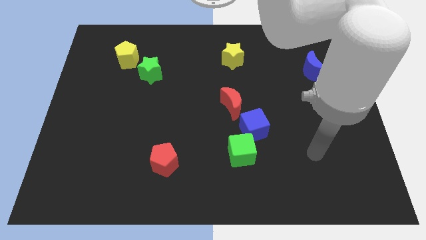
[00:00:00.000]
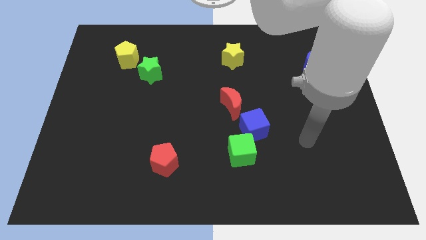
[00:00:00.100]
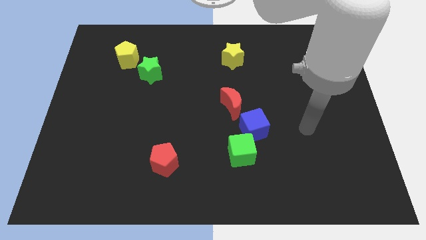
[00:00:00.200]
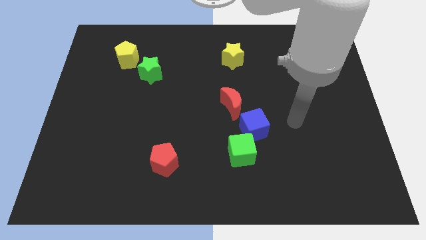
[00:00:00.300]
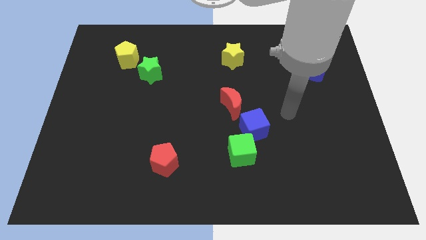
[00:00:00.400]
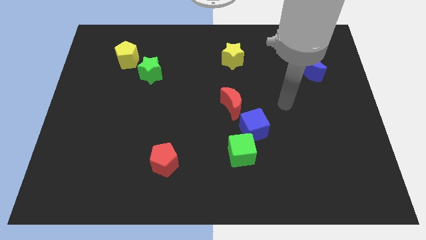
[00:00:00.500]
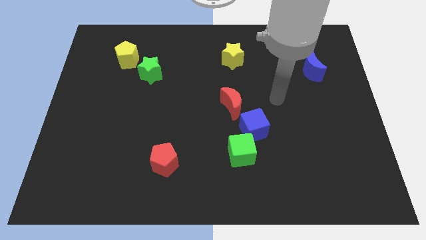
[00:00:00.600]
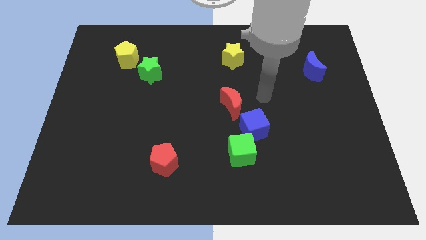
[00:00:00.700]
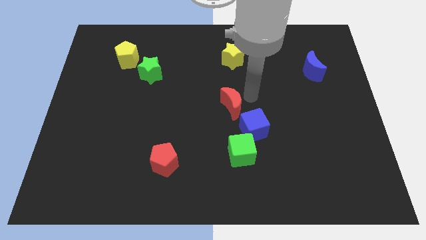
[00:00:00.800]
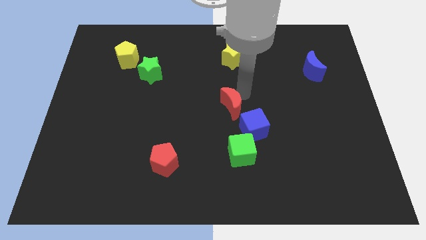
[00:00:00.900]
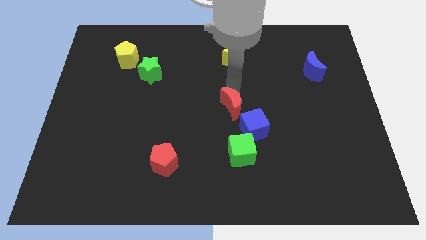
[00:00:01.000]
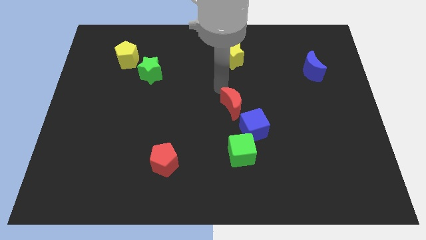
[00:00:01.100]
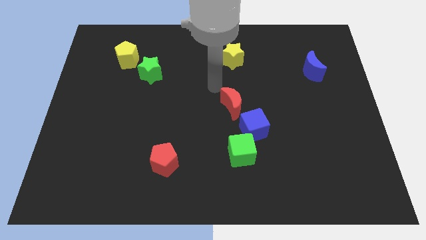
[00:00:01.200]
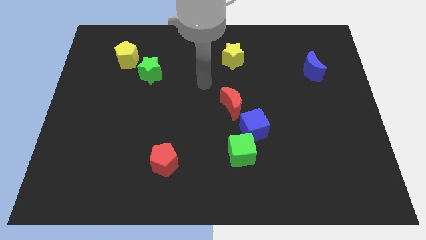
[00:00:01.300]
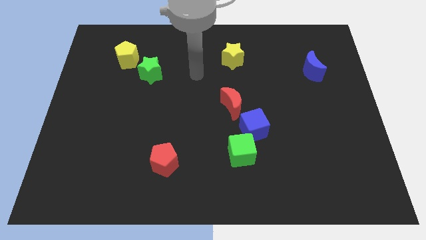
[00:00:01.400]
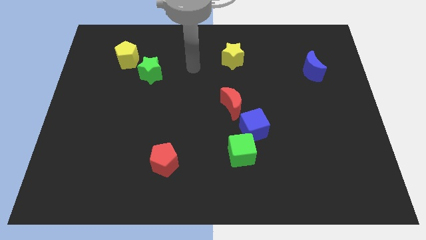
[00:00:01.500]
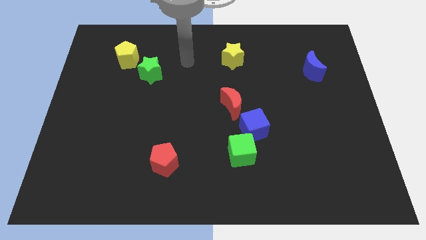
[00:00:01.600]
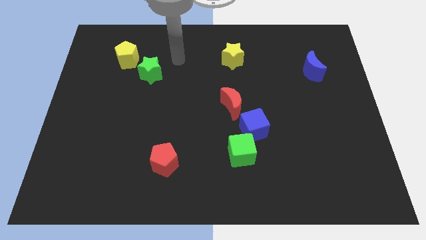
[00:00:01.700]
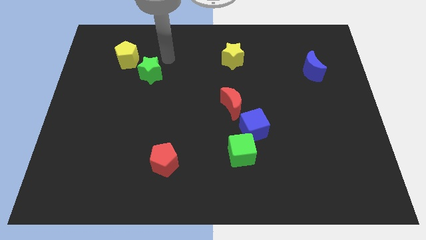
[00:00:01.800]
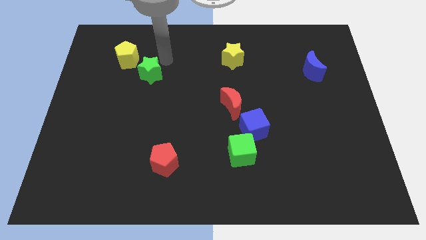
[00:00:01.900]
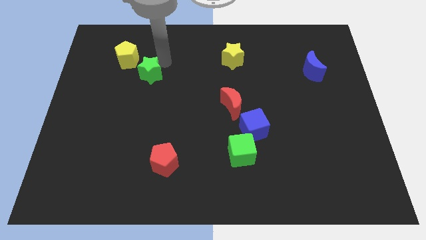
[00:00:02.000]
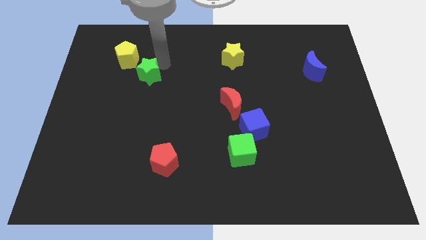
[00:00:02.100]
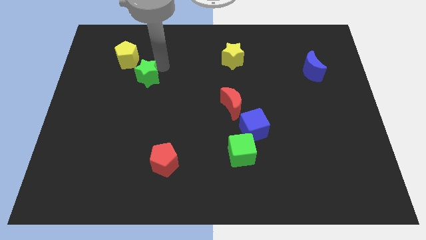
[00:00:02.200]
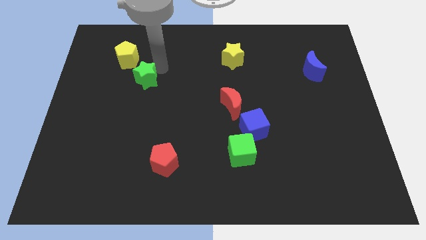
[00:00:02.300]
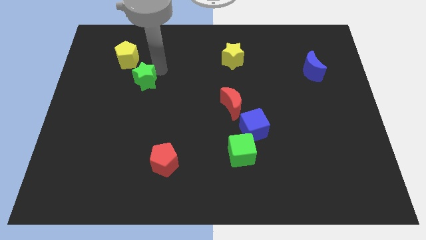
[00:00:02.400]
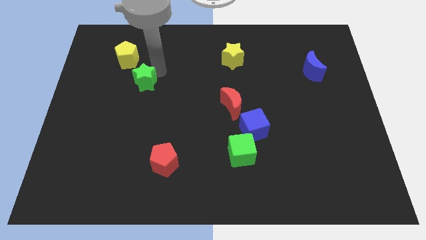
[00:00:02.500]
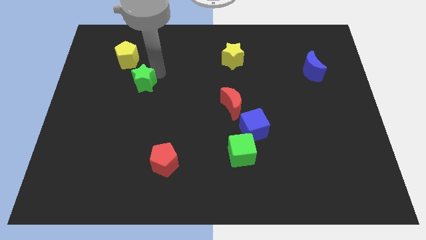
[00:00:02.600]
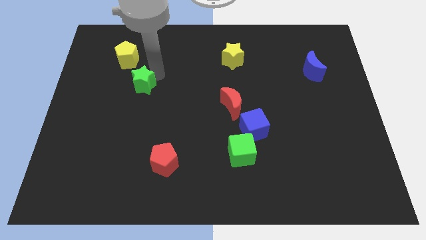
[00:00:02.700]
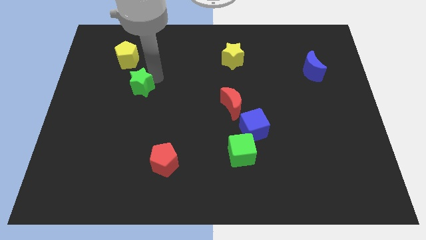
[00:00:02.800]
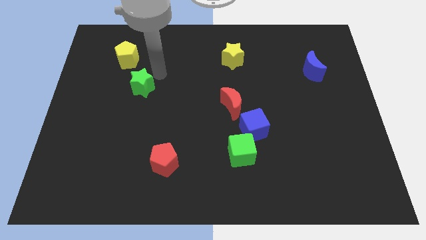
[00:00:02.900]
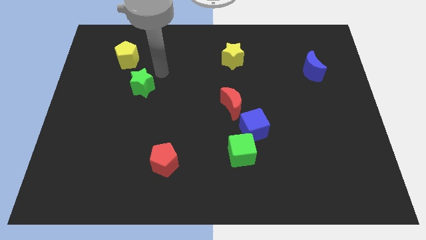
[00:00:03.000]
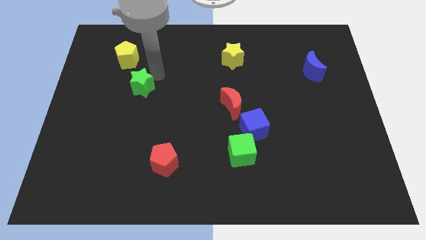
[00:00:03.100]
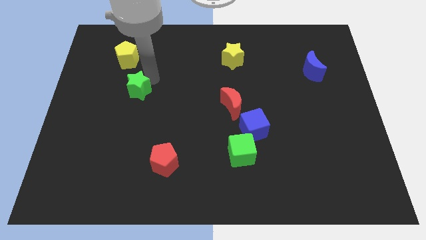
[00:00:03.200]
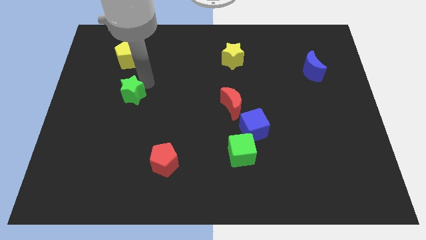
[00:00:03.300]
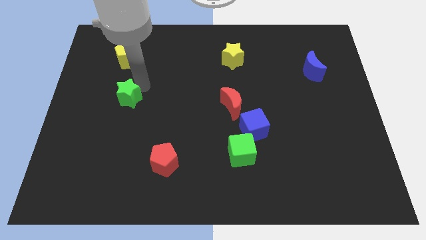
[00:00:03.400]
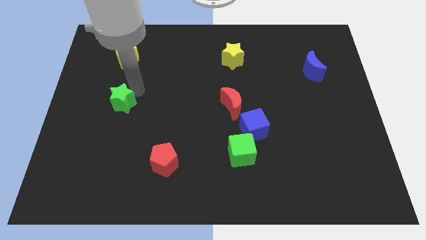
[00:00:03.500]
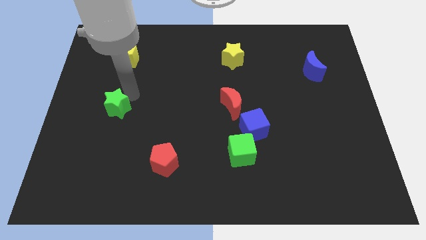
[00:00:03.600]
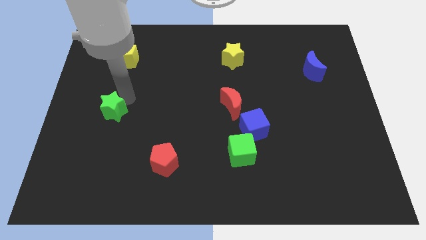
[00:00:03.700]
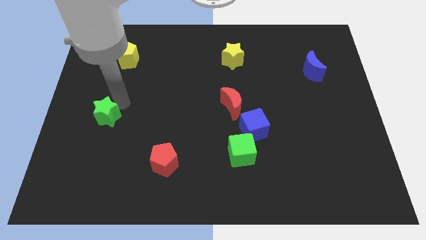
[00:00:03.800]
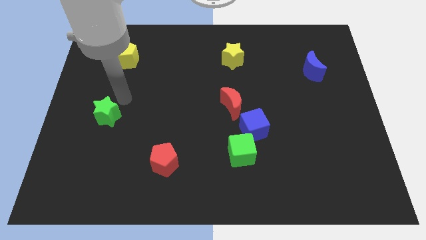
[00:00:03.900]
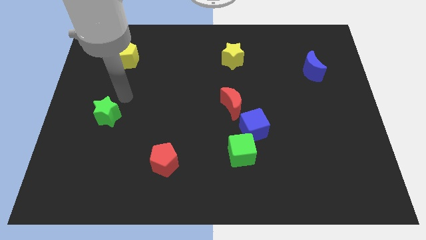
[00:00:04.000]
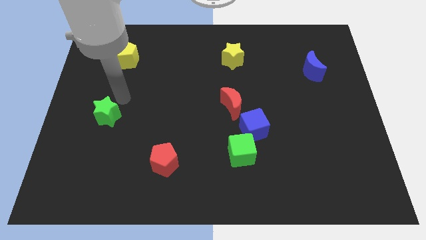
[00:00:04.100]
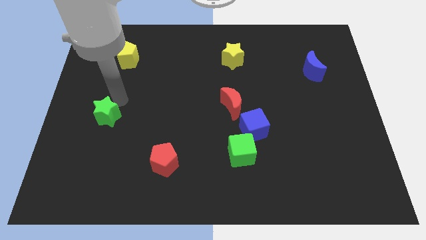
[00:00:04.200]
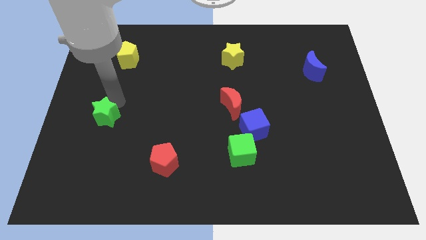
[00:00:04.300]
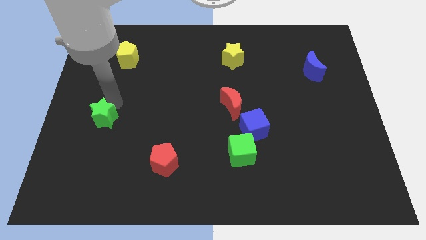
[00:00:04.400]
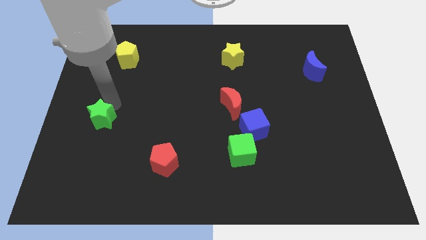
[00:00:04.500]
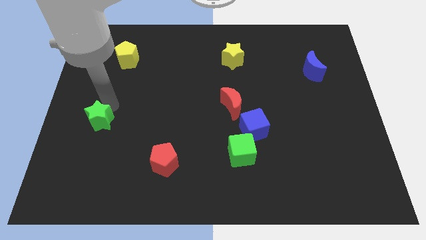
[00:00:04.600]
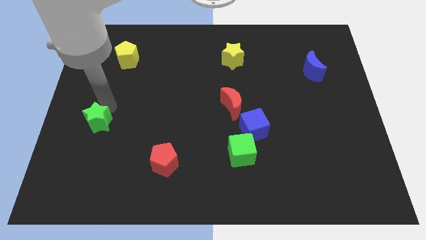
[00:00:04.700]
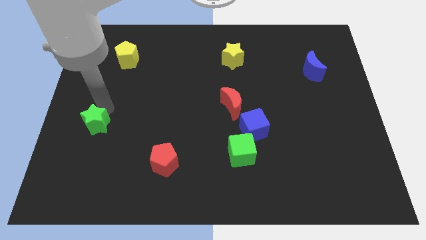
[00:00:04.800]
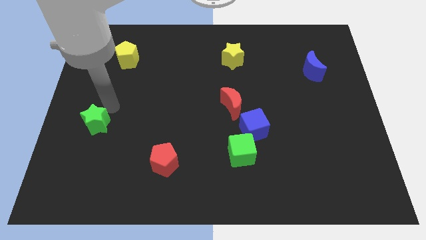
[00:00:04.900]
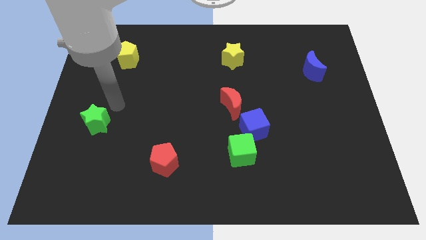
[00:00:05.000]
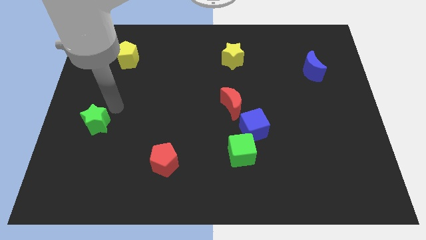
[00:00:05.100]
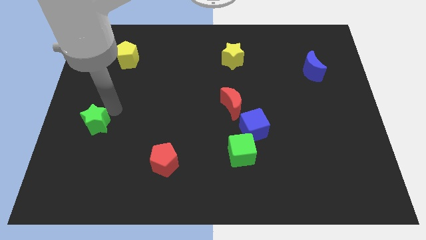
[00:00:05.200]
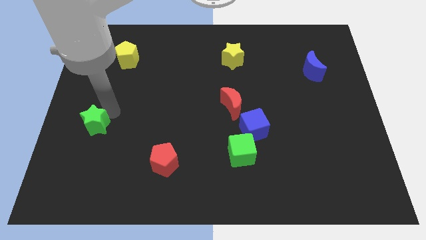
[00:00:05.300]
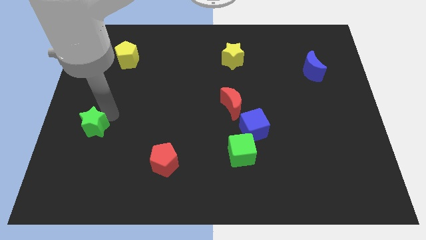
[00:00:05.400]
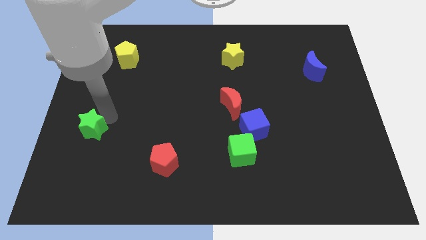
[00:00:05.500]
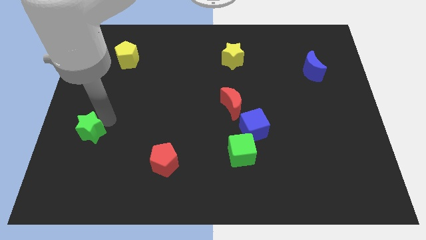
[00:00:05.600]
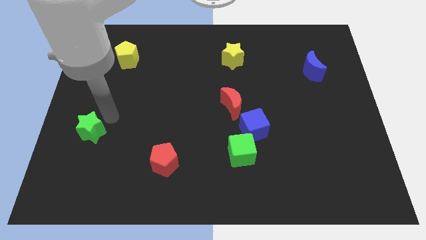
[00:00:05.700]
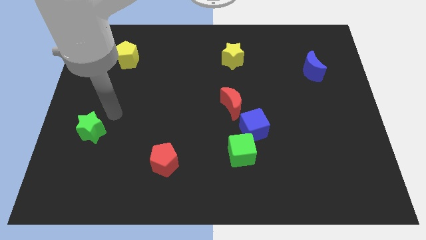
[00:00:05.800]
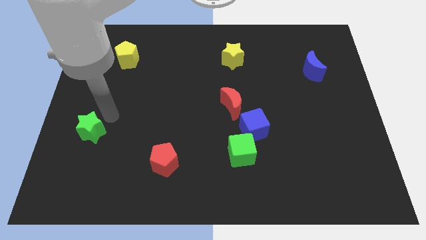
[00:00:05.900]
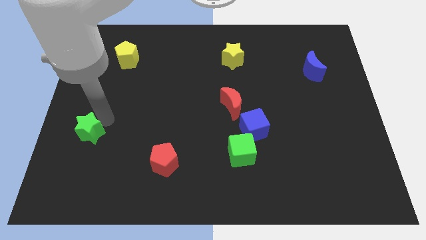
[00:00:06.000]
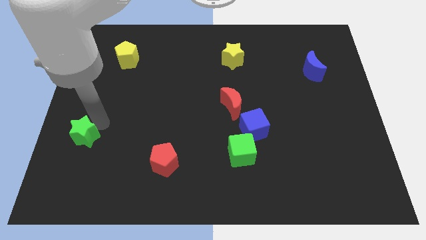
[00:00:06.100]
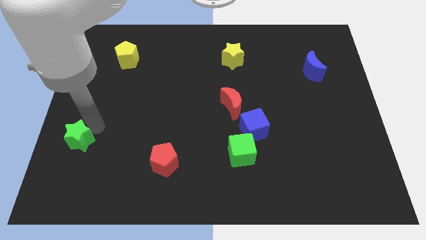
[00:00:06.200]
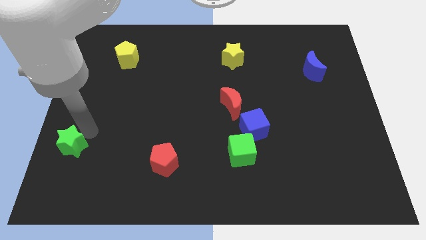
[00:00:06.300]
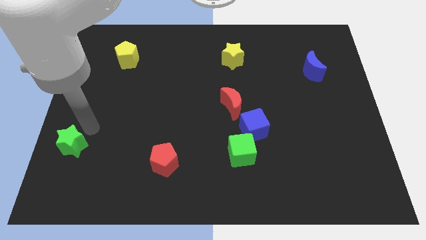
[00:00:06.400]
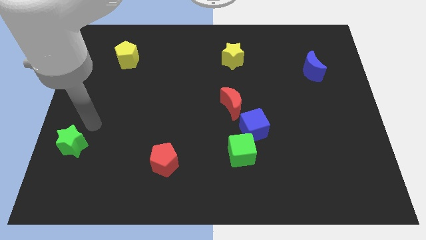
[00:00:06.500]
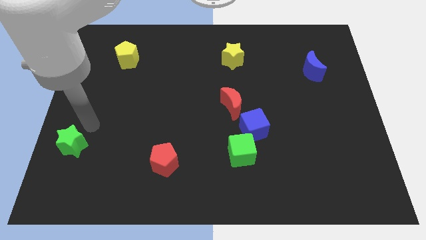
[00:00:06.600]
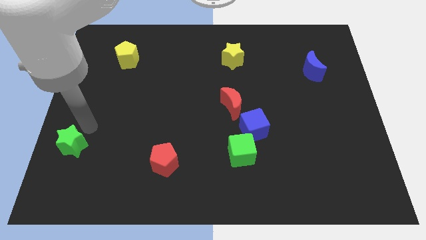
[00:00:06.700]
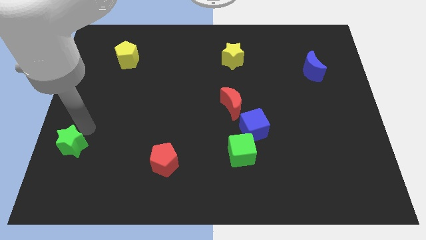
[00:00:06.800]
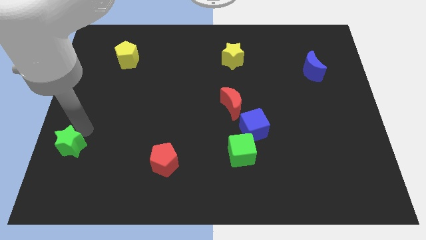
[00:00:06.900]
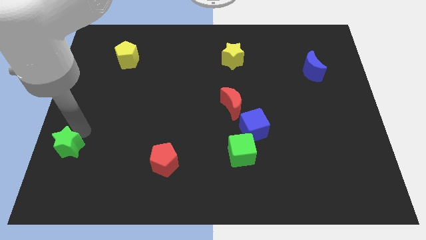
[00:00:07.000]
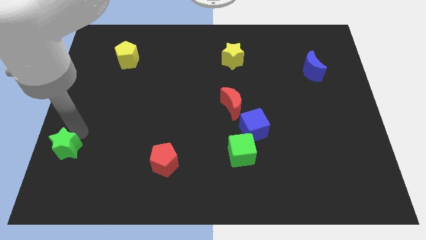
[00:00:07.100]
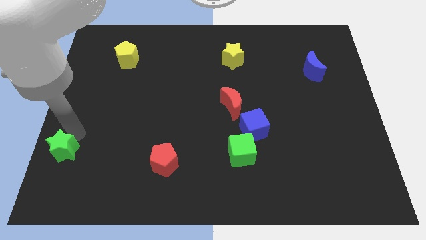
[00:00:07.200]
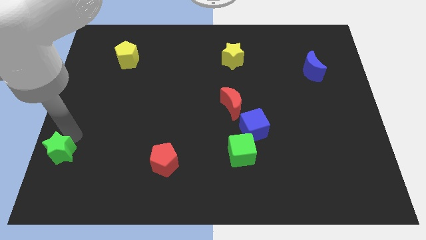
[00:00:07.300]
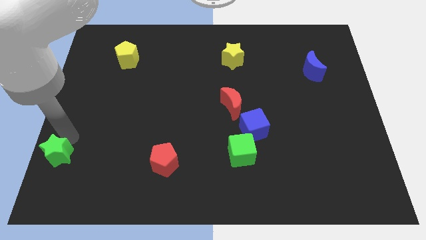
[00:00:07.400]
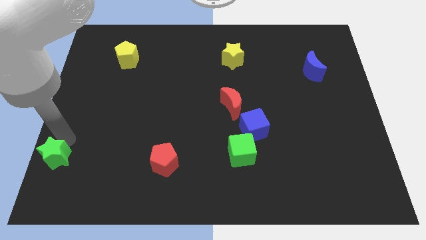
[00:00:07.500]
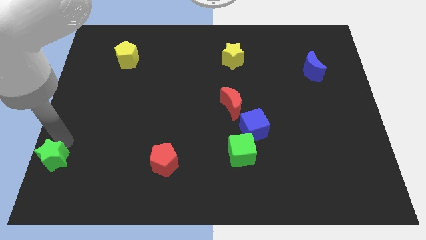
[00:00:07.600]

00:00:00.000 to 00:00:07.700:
push the green star to the bottom left
